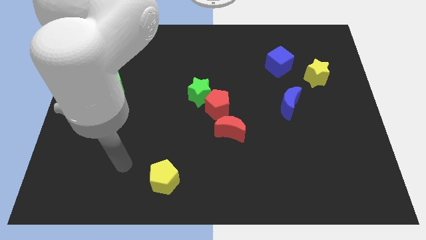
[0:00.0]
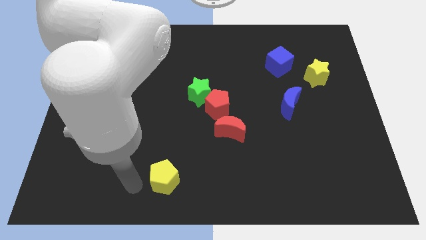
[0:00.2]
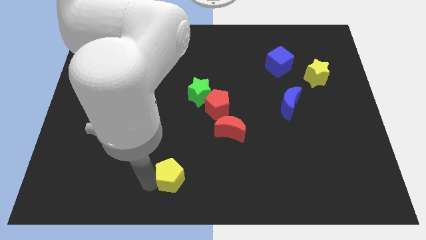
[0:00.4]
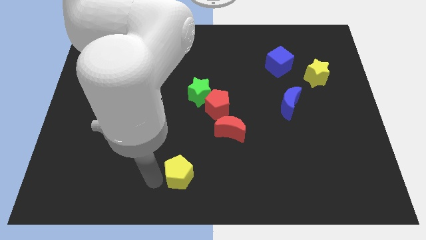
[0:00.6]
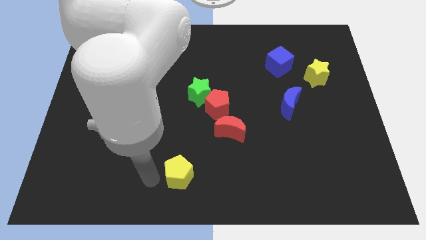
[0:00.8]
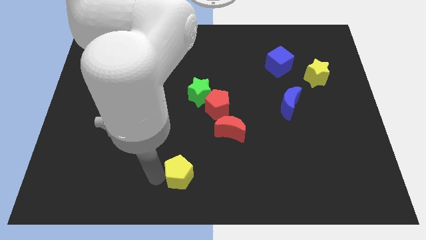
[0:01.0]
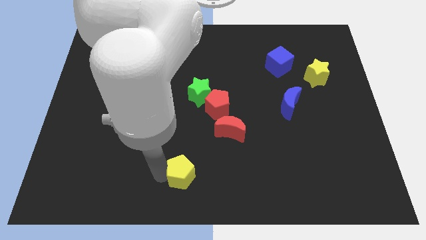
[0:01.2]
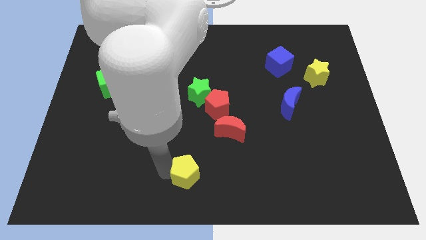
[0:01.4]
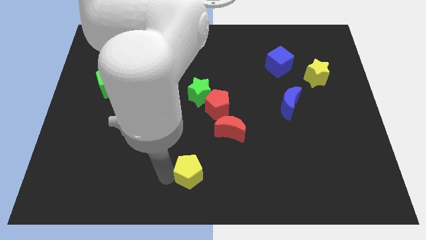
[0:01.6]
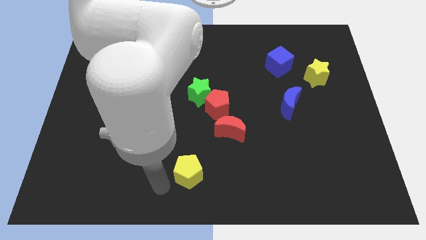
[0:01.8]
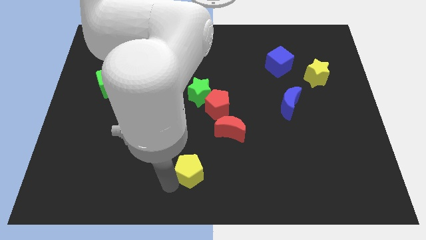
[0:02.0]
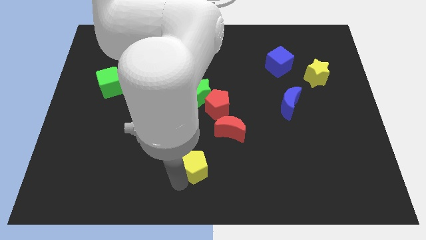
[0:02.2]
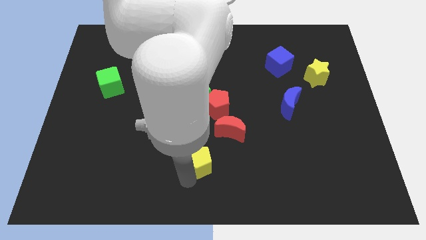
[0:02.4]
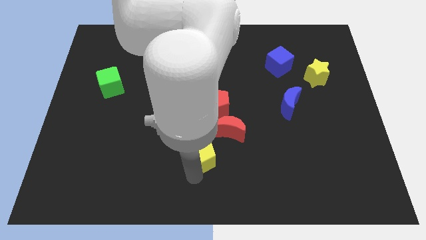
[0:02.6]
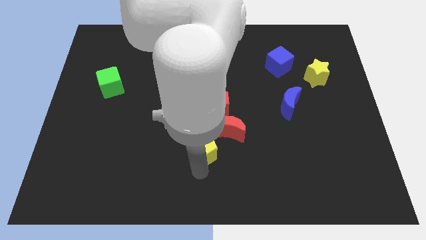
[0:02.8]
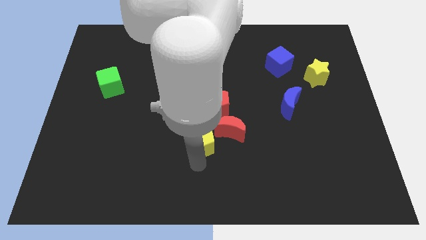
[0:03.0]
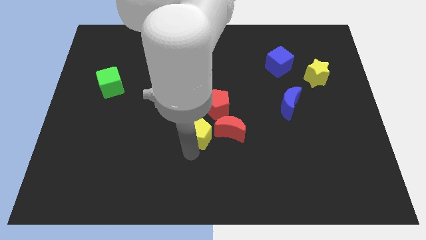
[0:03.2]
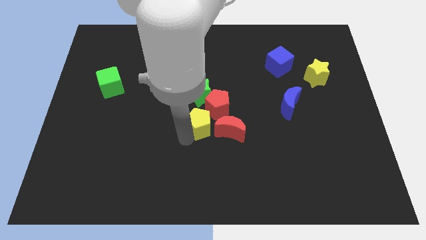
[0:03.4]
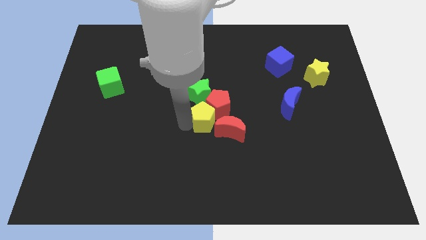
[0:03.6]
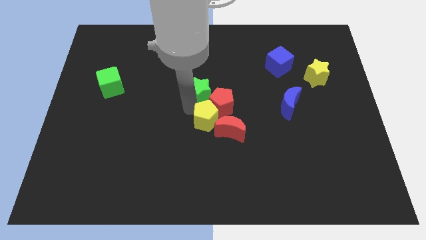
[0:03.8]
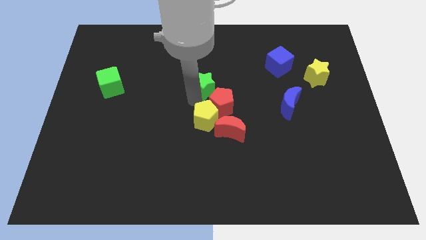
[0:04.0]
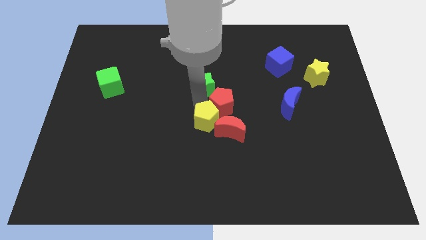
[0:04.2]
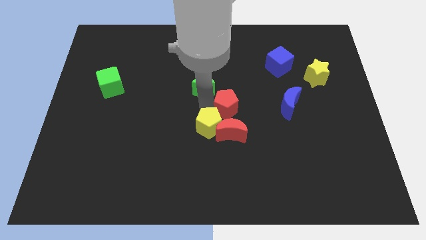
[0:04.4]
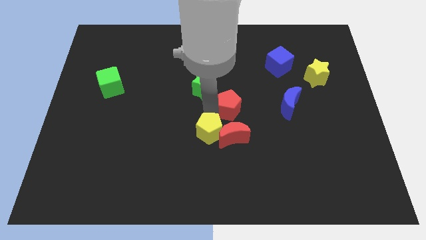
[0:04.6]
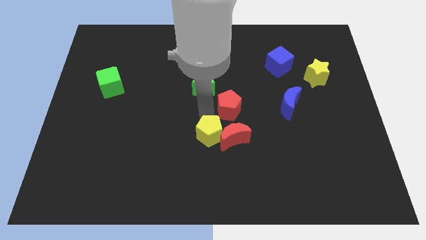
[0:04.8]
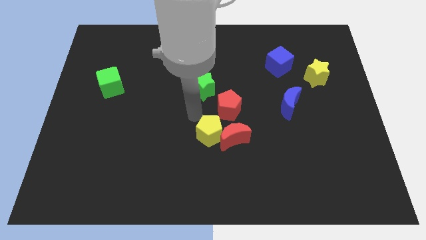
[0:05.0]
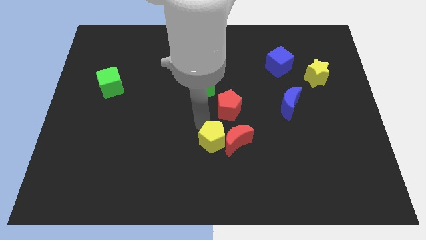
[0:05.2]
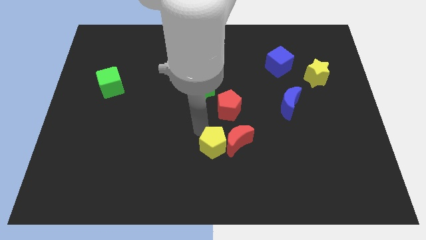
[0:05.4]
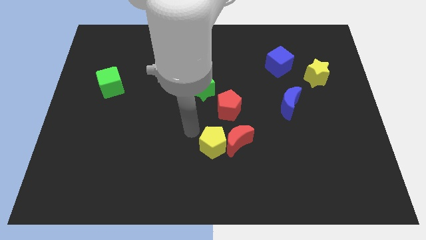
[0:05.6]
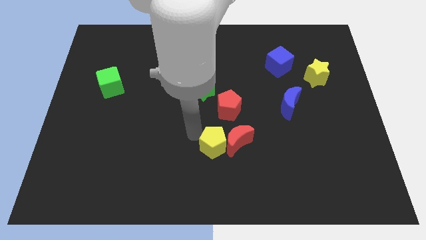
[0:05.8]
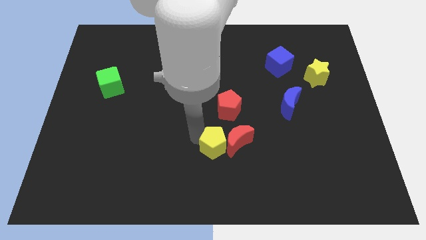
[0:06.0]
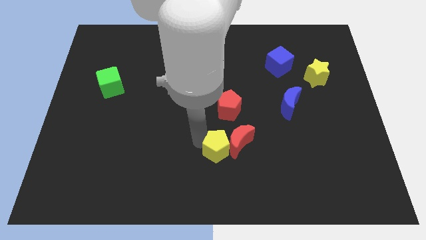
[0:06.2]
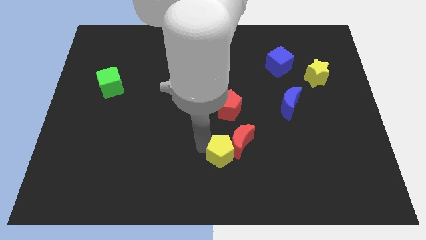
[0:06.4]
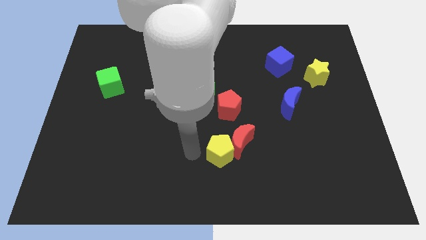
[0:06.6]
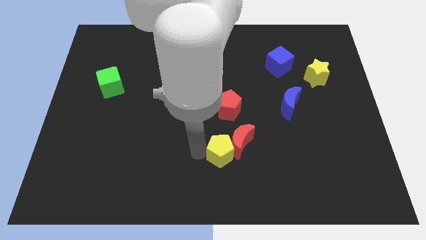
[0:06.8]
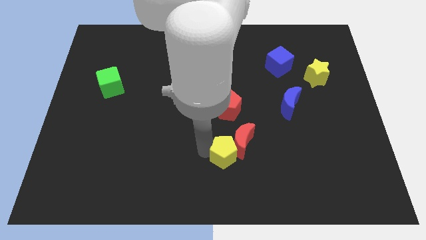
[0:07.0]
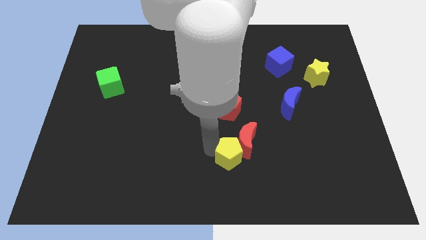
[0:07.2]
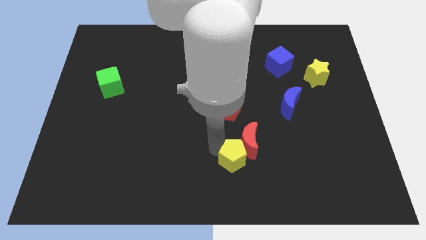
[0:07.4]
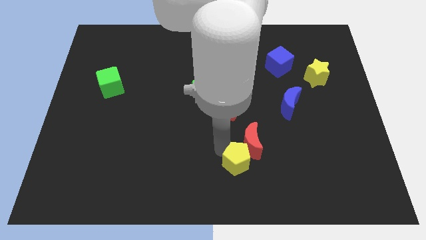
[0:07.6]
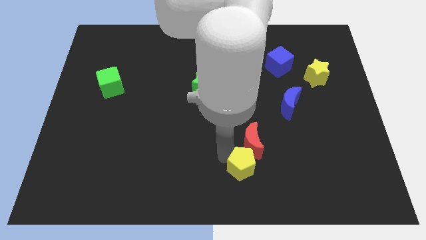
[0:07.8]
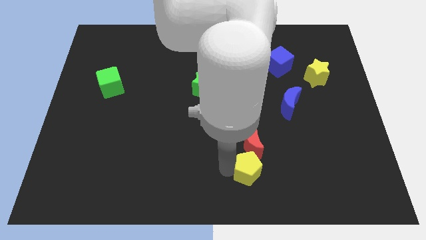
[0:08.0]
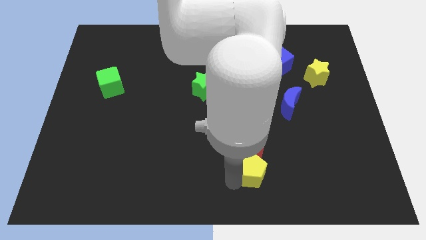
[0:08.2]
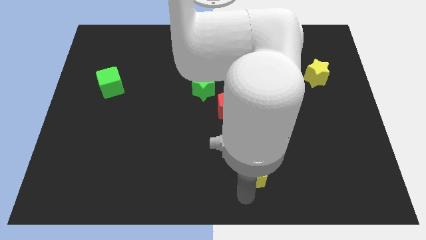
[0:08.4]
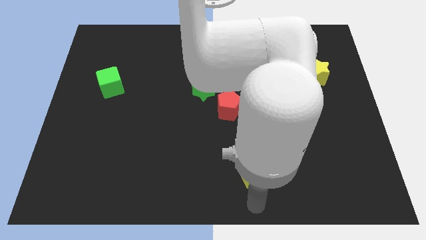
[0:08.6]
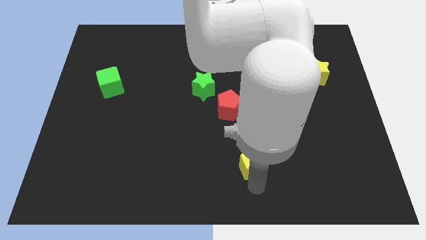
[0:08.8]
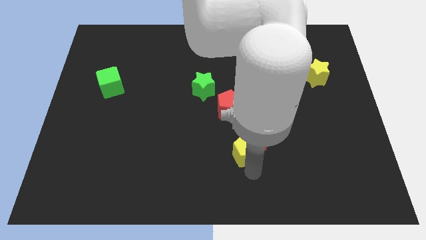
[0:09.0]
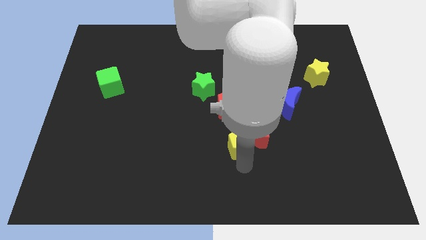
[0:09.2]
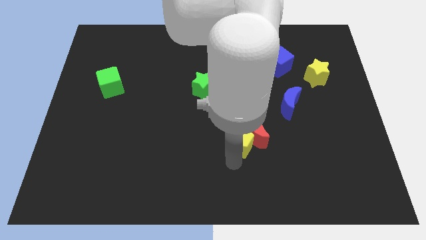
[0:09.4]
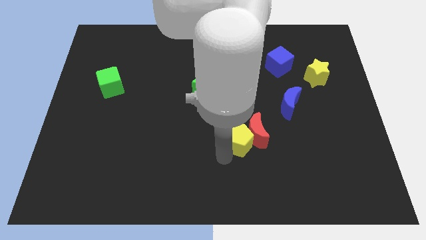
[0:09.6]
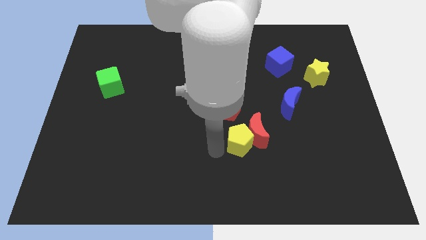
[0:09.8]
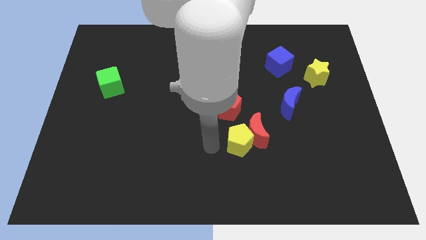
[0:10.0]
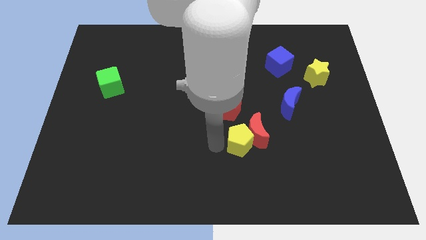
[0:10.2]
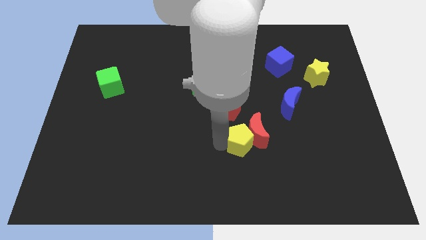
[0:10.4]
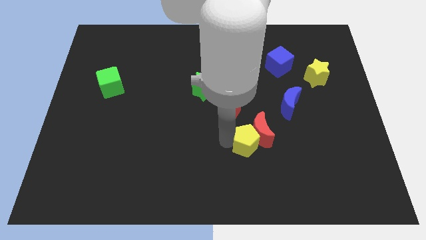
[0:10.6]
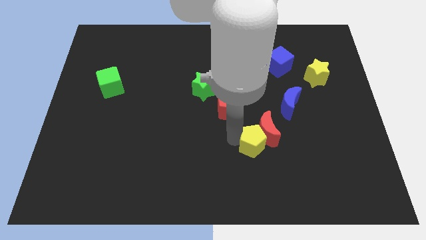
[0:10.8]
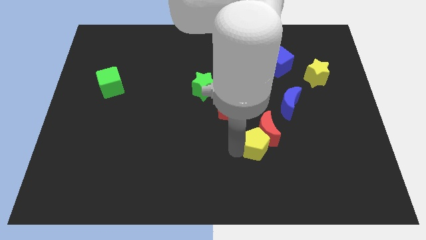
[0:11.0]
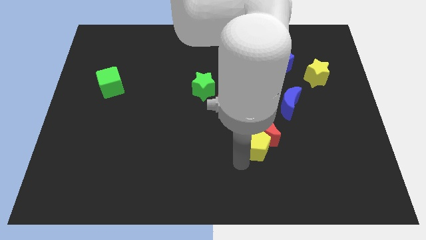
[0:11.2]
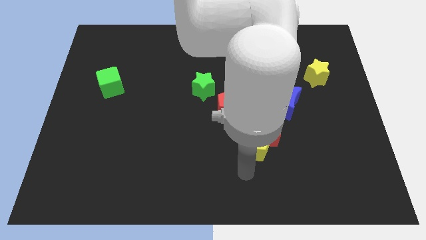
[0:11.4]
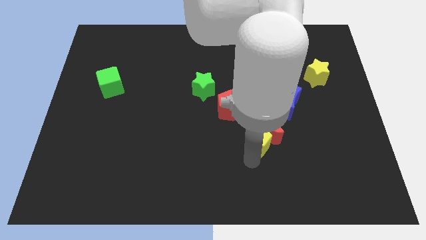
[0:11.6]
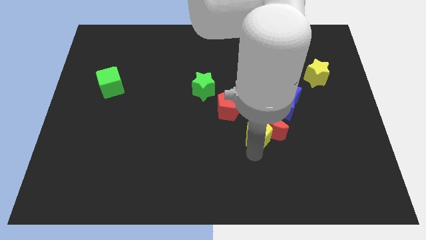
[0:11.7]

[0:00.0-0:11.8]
push the yellow pentagon diagonally down and to the left of the blue moon
